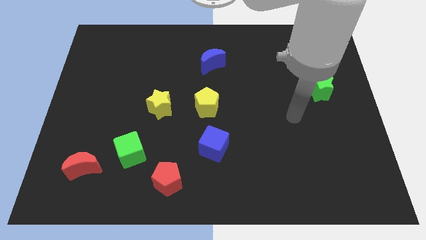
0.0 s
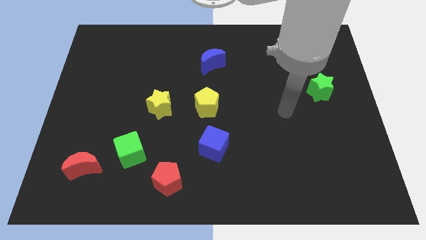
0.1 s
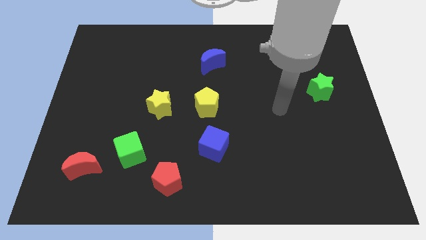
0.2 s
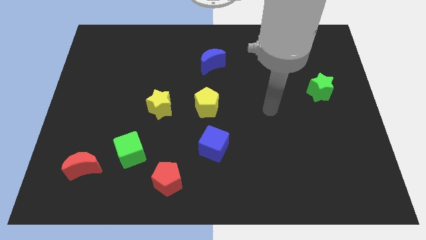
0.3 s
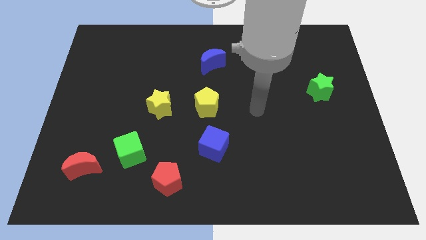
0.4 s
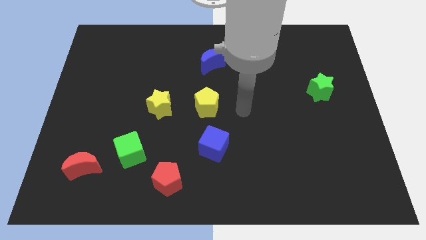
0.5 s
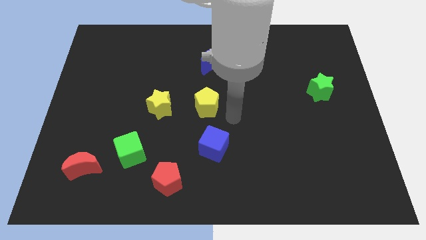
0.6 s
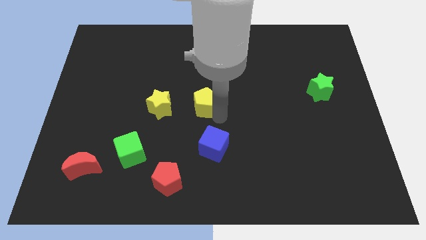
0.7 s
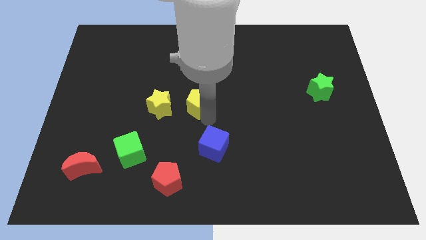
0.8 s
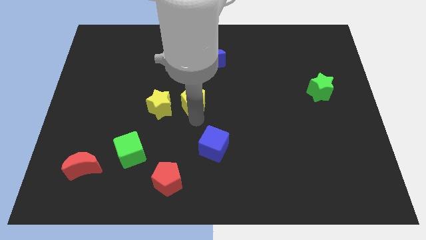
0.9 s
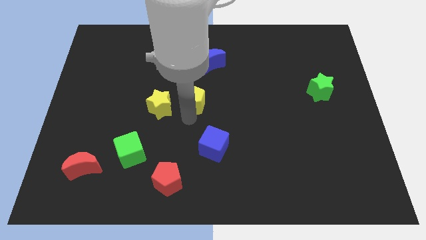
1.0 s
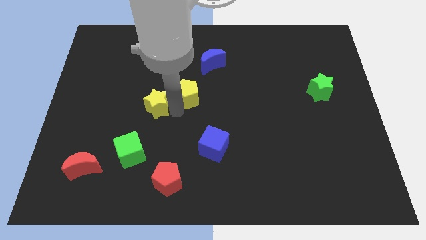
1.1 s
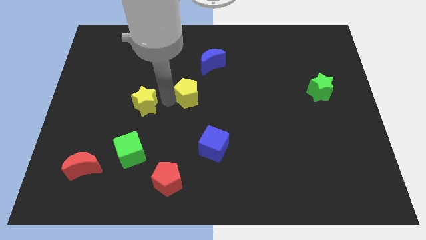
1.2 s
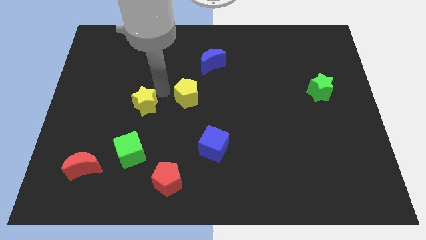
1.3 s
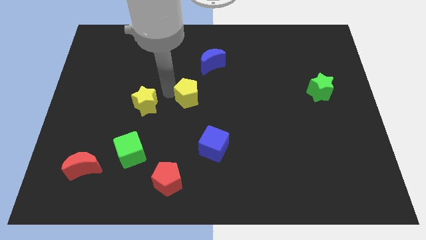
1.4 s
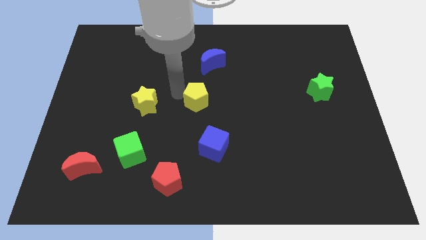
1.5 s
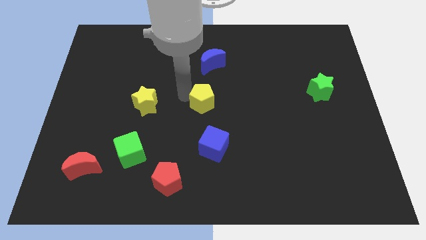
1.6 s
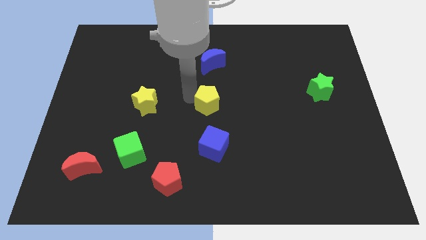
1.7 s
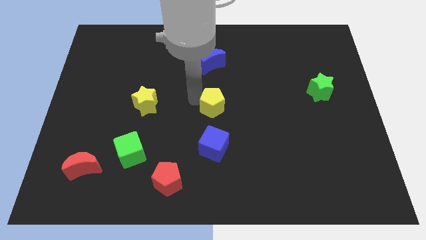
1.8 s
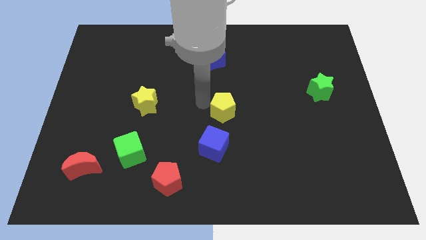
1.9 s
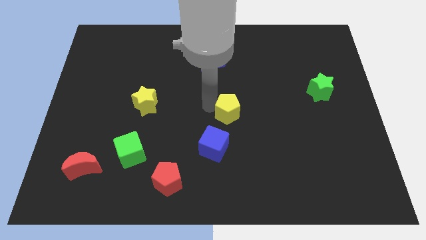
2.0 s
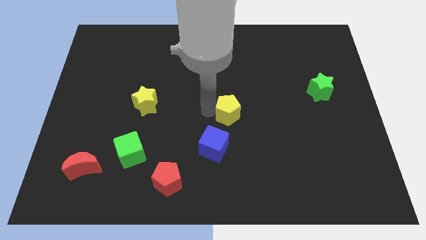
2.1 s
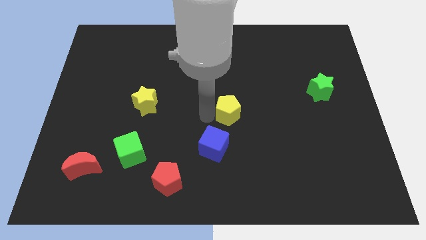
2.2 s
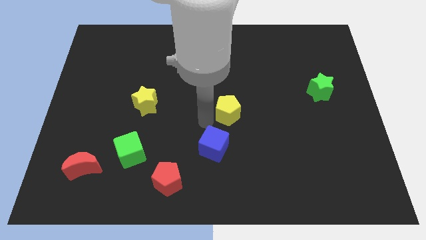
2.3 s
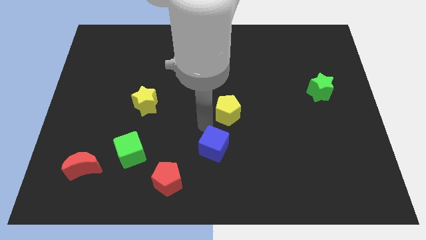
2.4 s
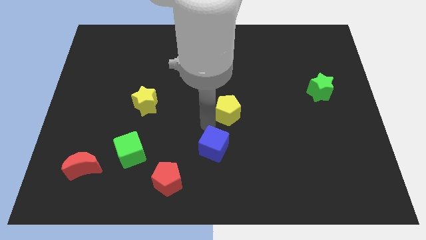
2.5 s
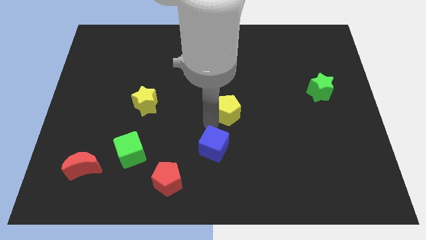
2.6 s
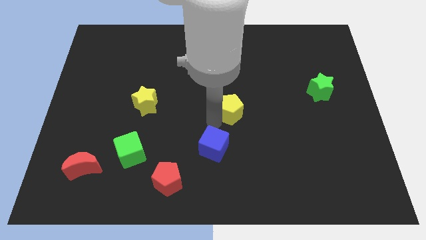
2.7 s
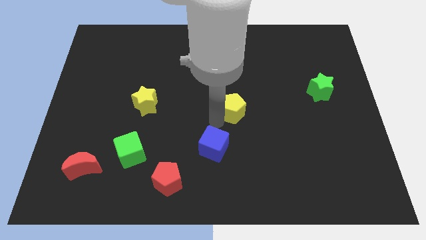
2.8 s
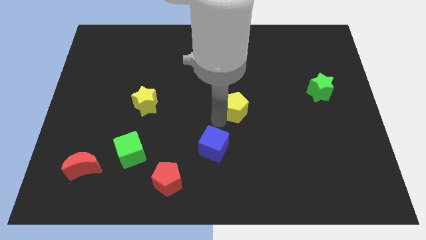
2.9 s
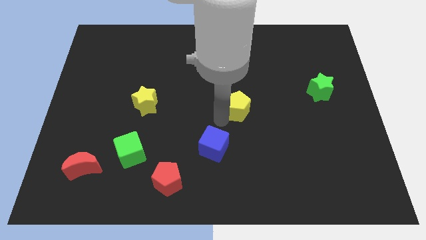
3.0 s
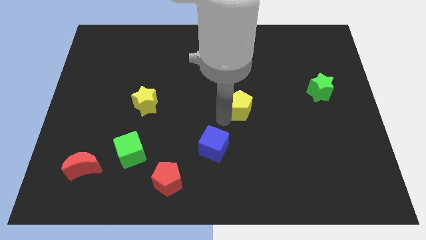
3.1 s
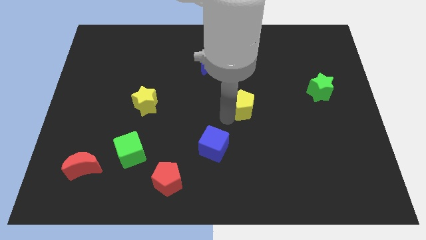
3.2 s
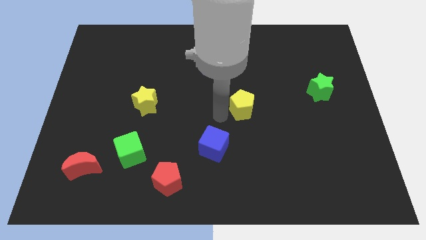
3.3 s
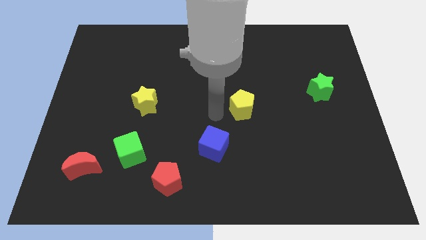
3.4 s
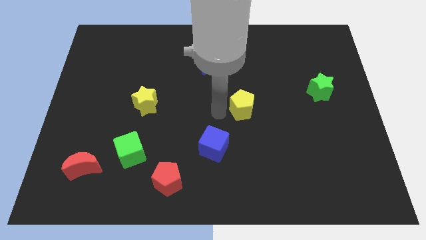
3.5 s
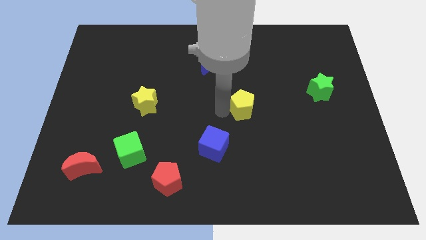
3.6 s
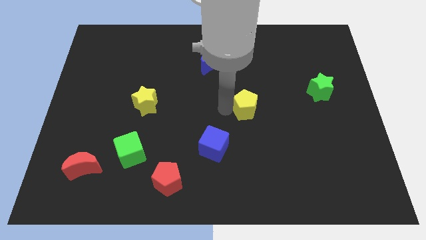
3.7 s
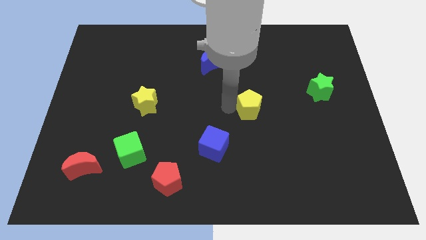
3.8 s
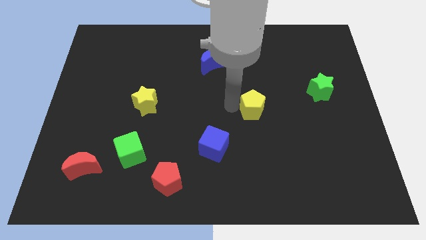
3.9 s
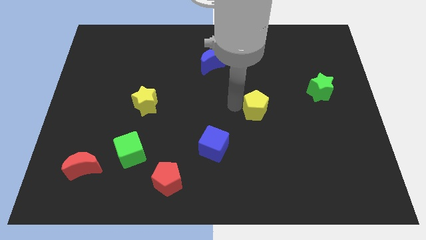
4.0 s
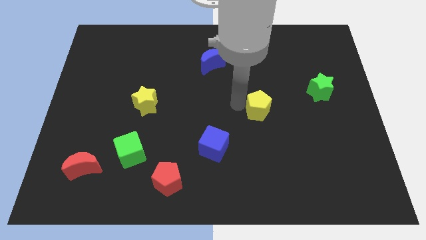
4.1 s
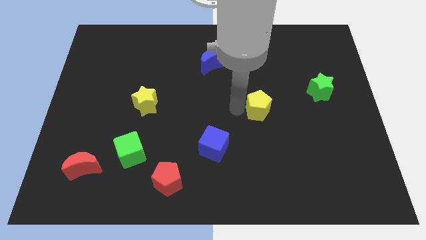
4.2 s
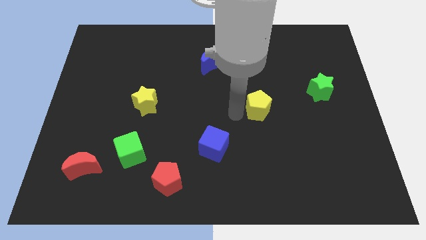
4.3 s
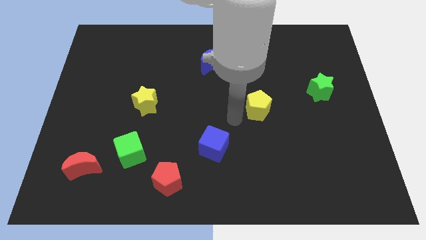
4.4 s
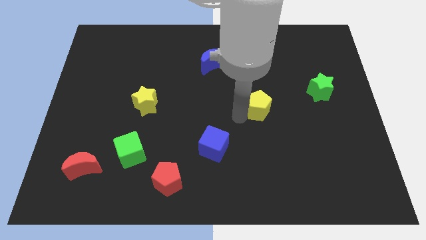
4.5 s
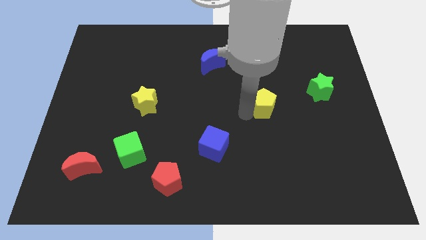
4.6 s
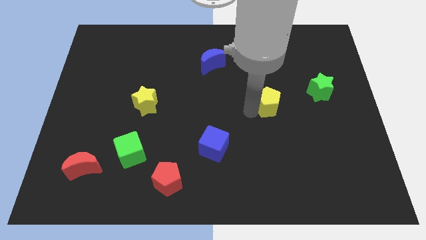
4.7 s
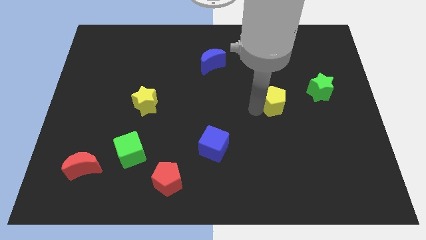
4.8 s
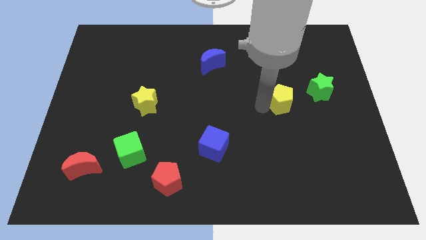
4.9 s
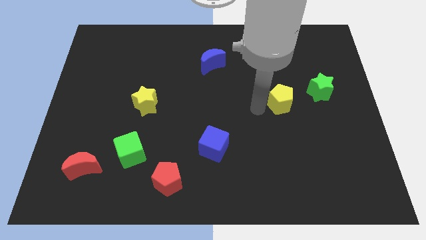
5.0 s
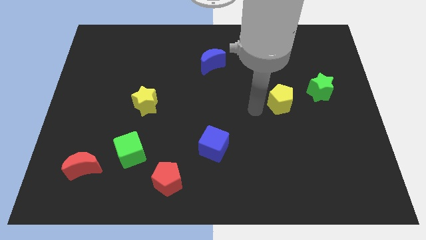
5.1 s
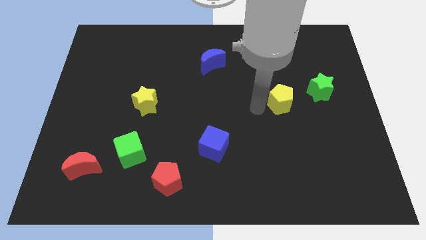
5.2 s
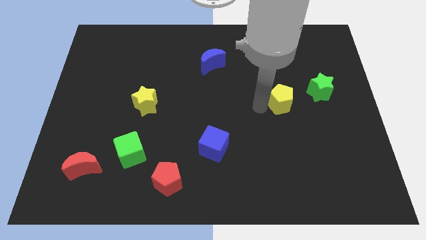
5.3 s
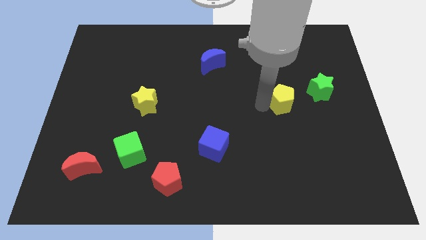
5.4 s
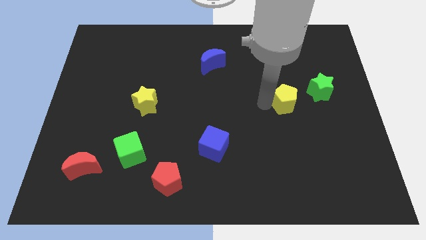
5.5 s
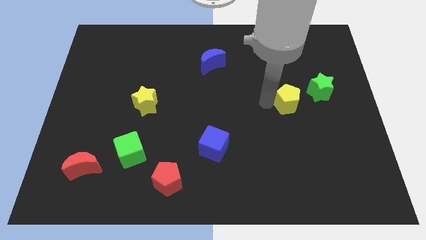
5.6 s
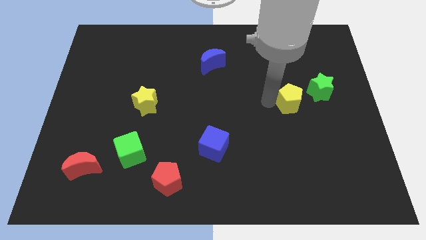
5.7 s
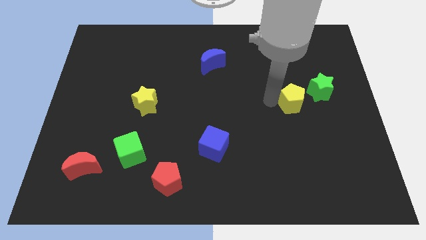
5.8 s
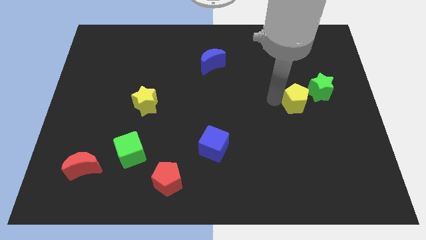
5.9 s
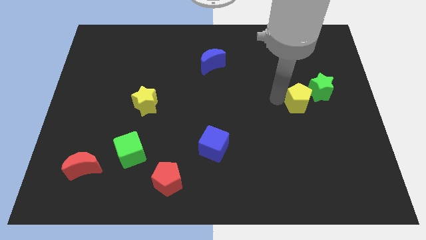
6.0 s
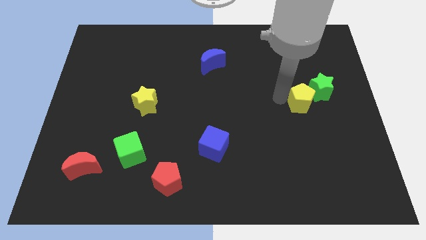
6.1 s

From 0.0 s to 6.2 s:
put the yellow pentagon next to the green star

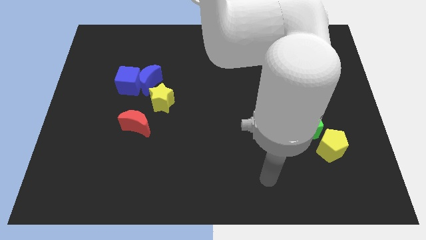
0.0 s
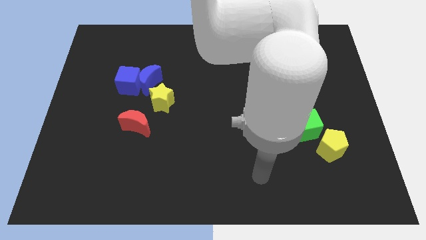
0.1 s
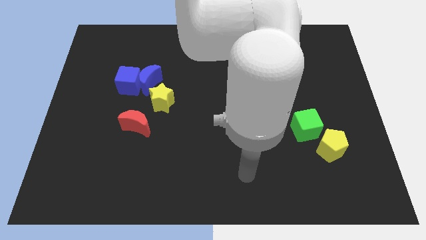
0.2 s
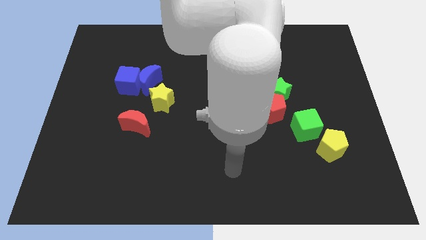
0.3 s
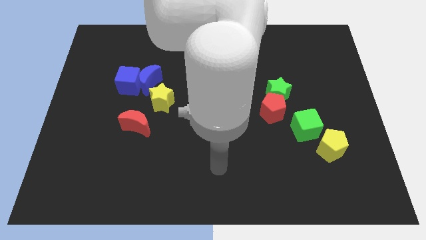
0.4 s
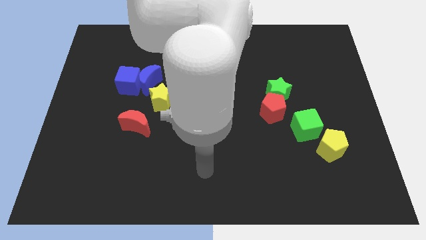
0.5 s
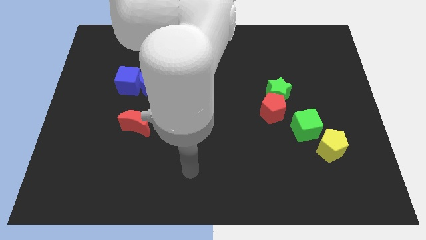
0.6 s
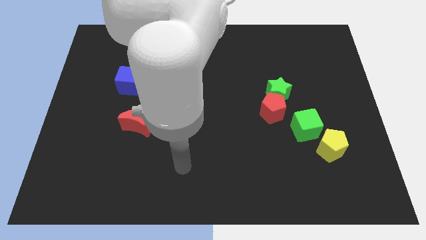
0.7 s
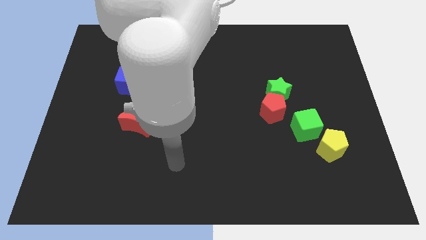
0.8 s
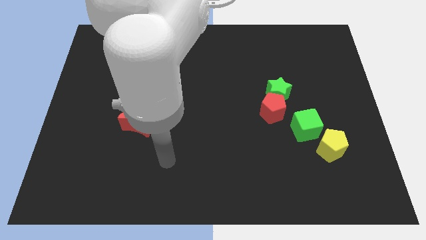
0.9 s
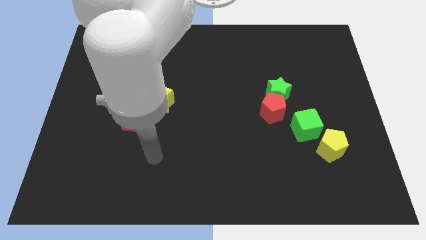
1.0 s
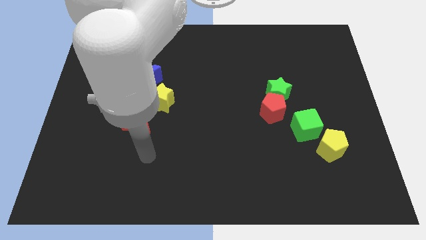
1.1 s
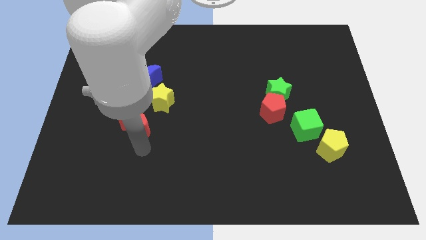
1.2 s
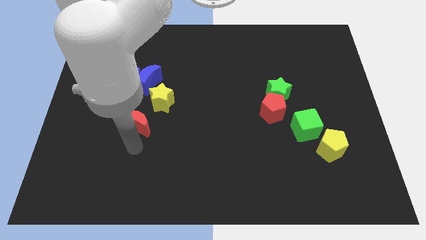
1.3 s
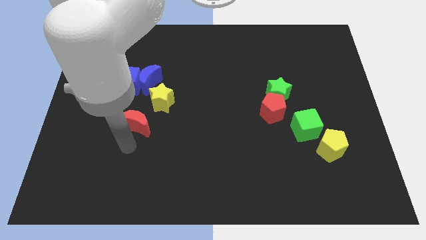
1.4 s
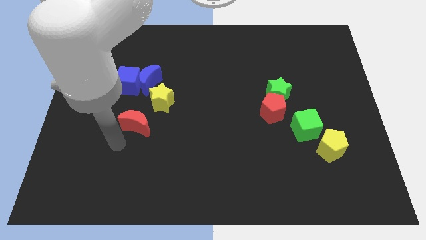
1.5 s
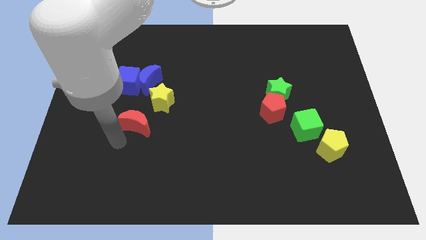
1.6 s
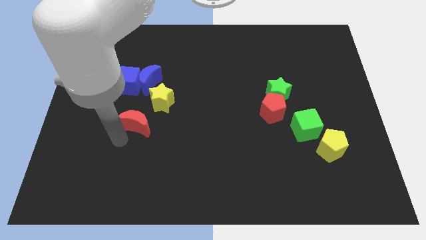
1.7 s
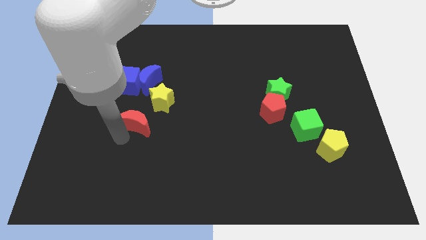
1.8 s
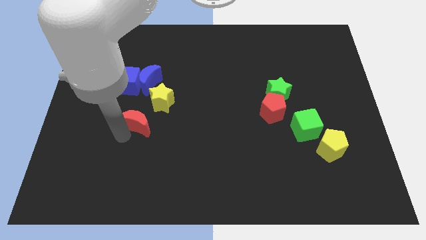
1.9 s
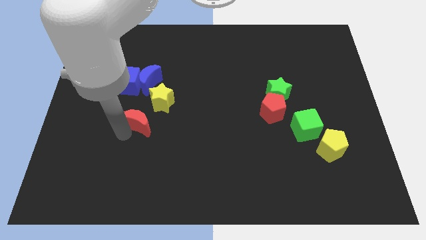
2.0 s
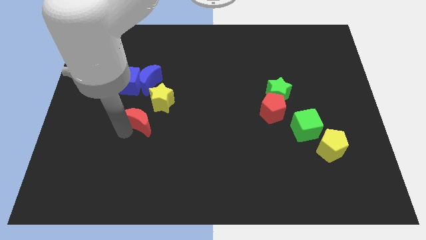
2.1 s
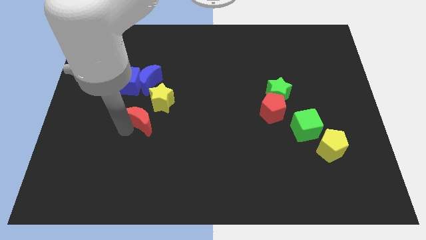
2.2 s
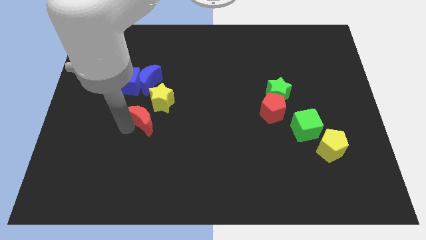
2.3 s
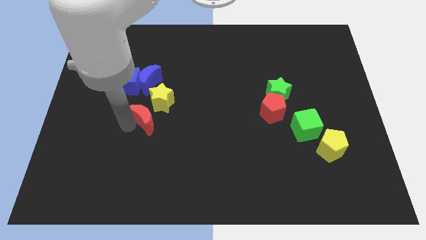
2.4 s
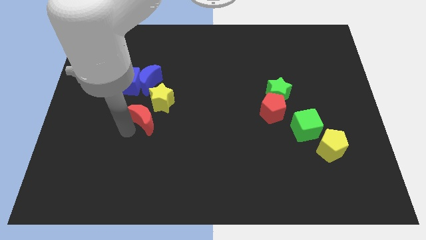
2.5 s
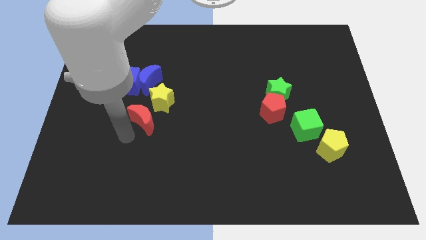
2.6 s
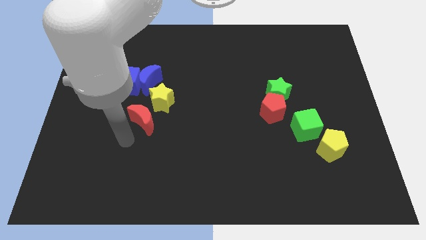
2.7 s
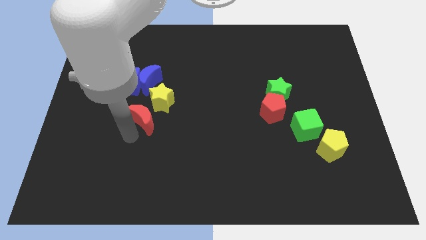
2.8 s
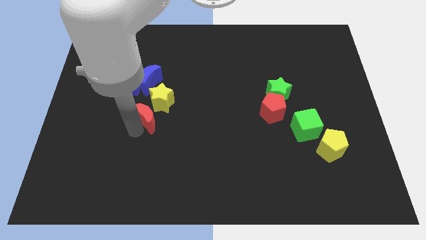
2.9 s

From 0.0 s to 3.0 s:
push the red moon next to the yellow star
